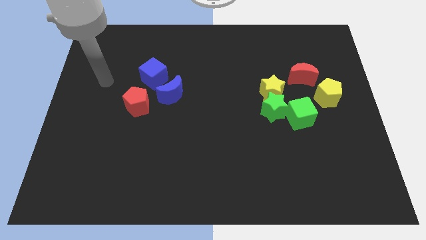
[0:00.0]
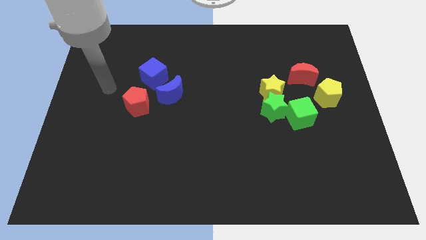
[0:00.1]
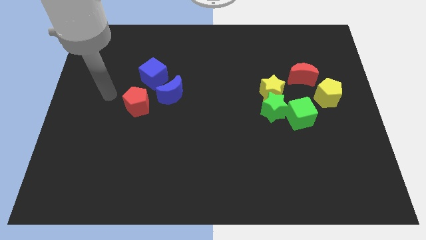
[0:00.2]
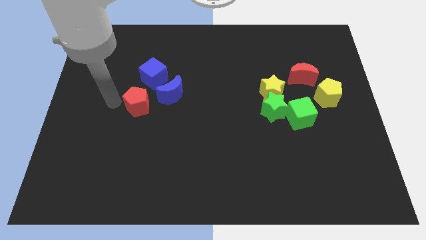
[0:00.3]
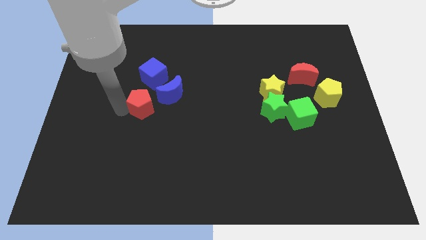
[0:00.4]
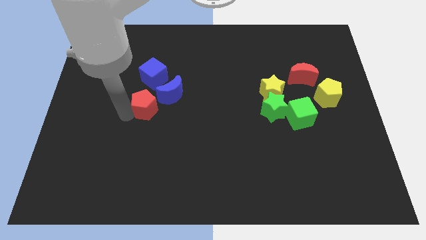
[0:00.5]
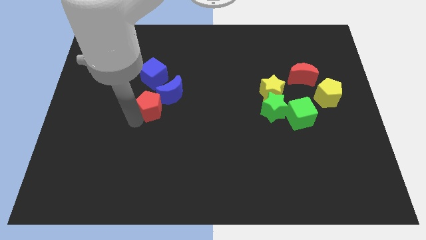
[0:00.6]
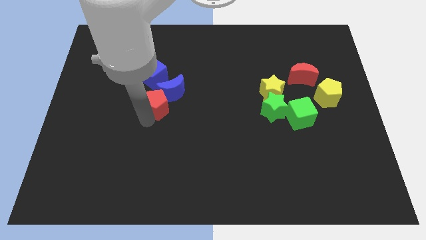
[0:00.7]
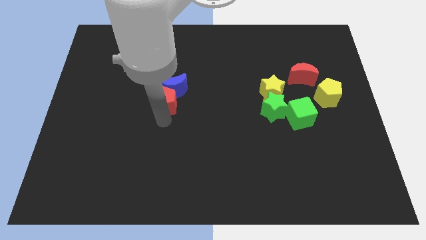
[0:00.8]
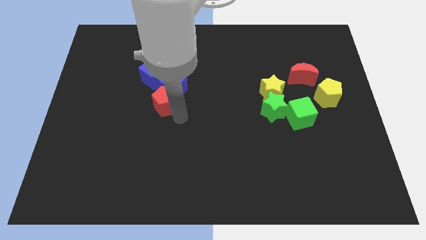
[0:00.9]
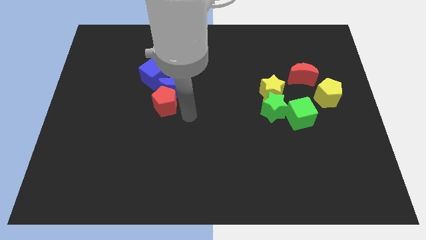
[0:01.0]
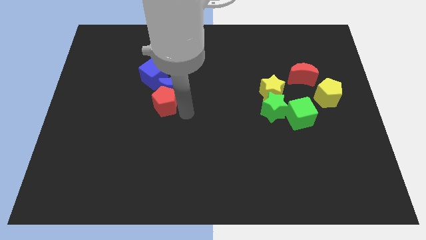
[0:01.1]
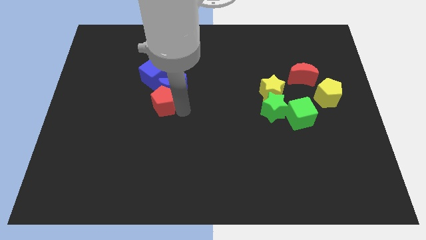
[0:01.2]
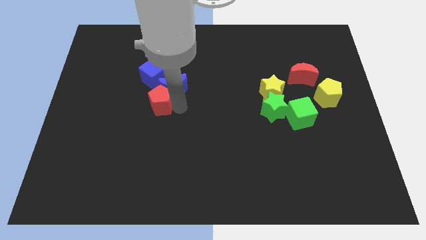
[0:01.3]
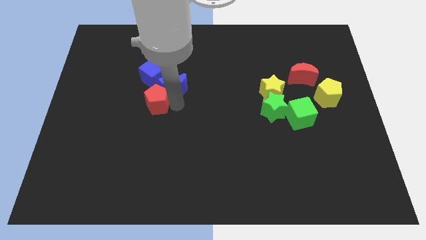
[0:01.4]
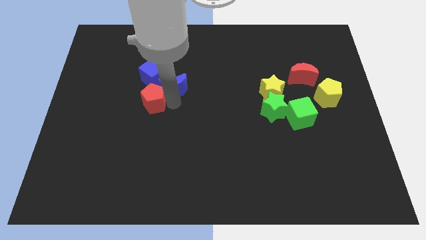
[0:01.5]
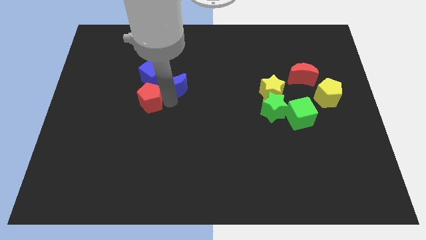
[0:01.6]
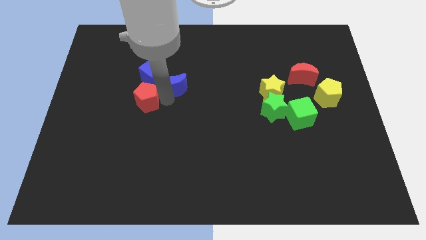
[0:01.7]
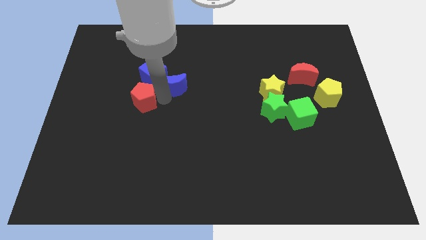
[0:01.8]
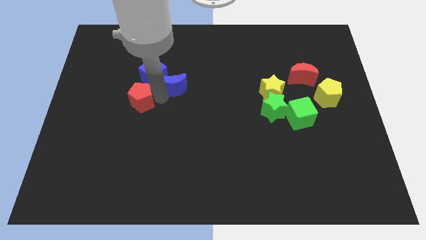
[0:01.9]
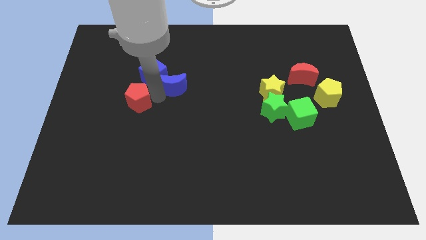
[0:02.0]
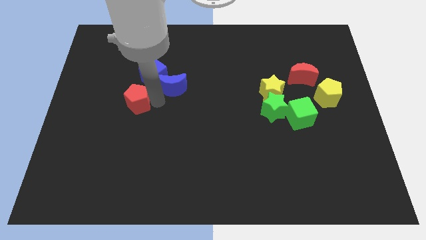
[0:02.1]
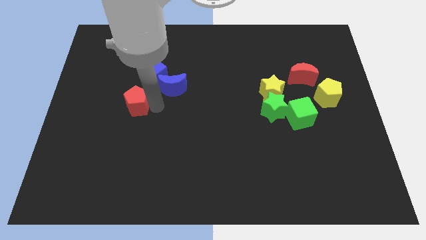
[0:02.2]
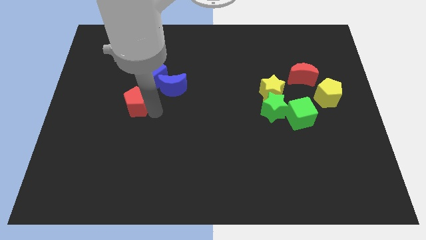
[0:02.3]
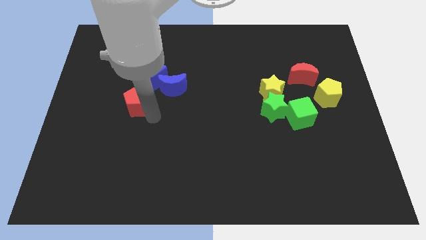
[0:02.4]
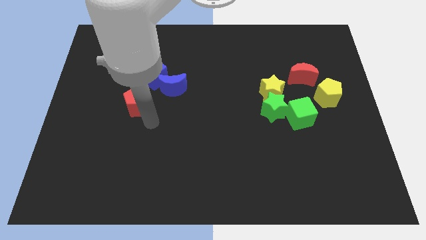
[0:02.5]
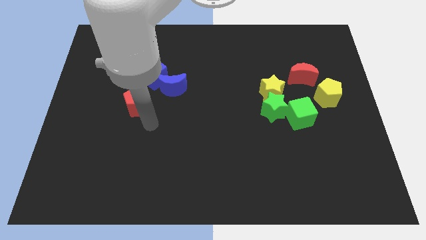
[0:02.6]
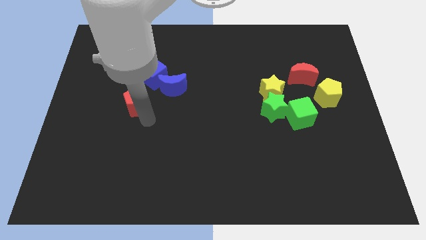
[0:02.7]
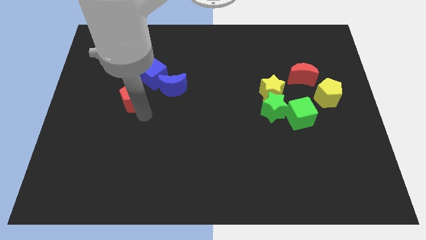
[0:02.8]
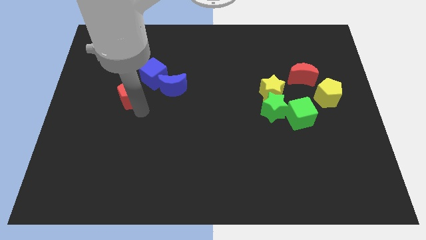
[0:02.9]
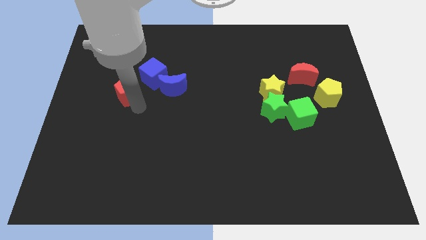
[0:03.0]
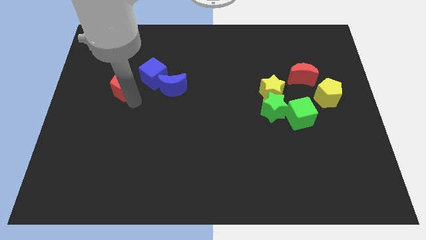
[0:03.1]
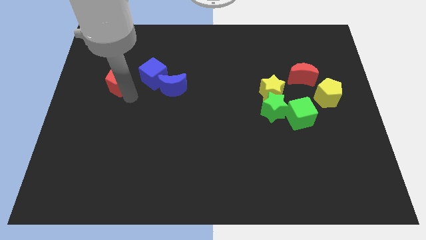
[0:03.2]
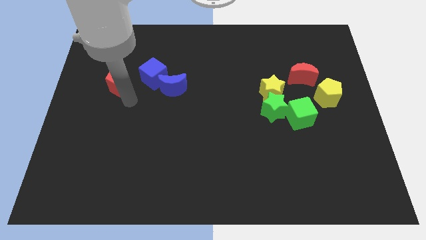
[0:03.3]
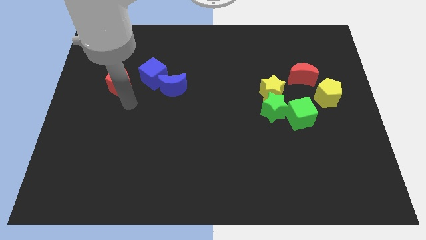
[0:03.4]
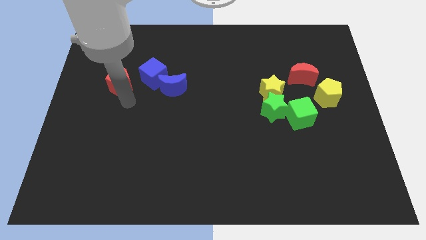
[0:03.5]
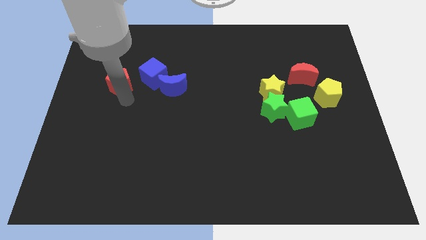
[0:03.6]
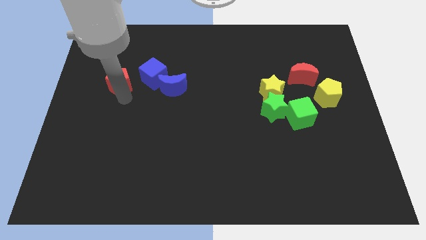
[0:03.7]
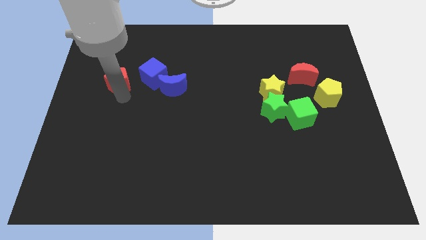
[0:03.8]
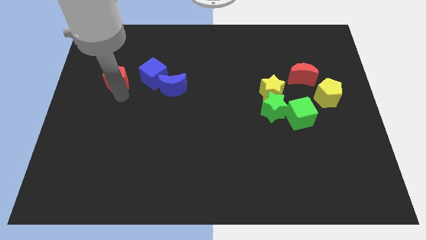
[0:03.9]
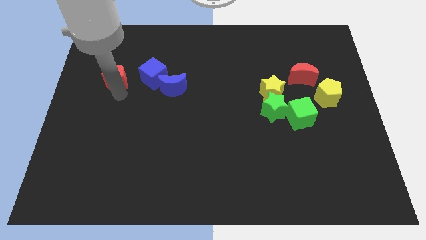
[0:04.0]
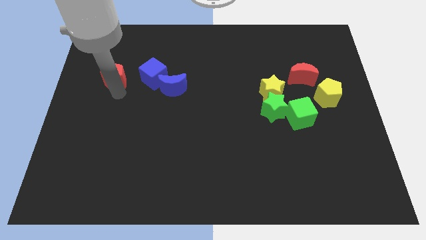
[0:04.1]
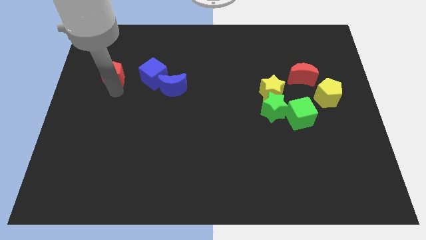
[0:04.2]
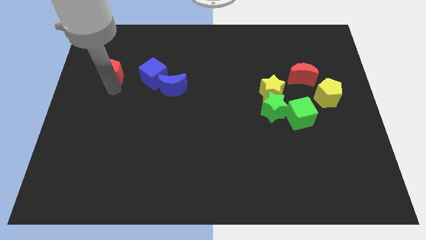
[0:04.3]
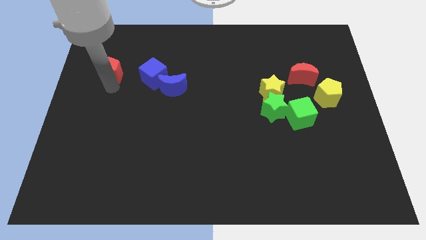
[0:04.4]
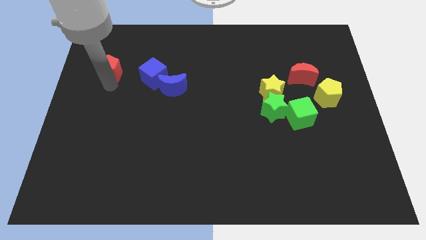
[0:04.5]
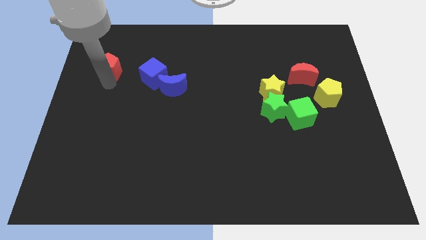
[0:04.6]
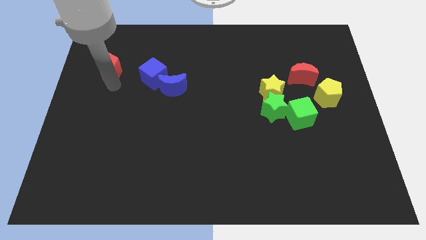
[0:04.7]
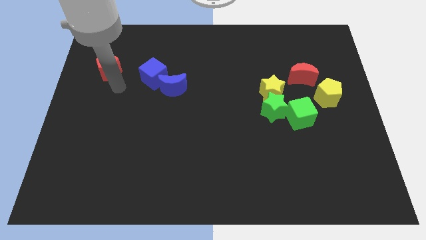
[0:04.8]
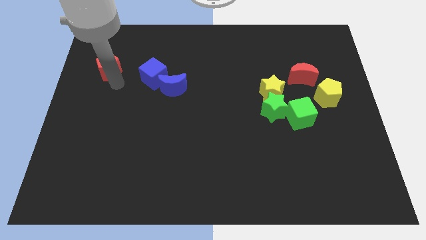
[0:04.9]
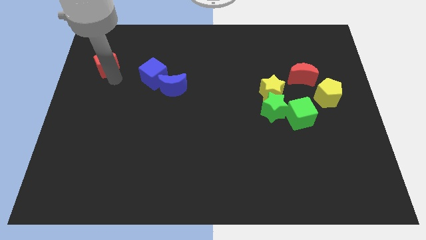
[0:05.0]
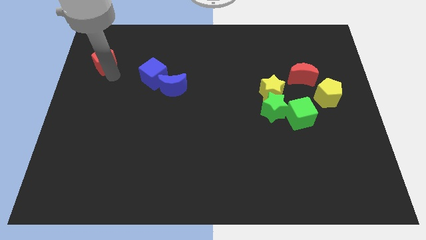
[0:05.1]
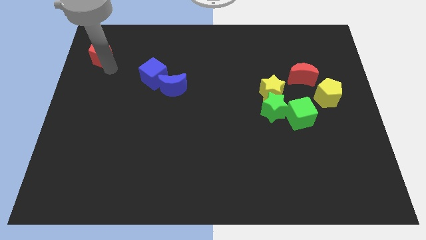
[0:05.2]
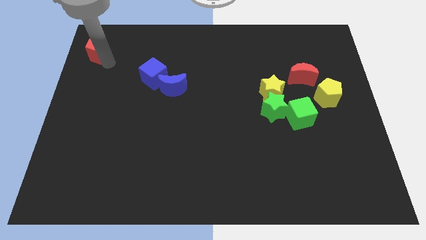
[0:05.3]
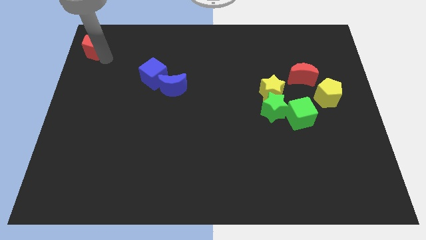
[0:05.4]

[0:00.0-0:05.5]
move the red pentagon to the top left of the board
